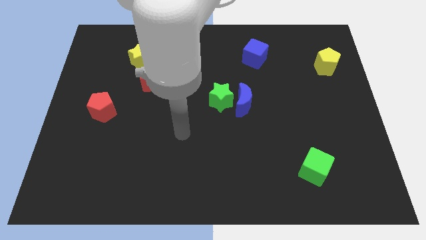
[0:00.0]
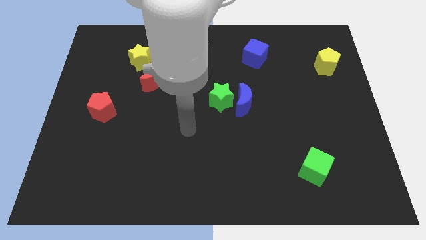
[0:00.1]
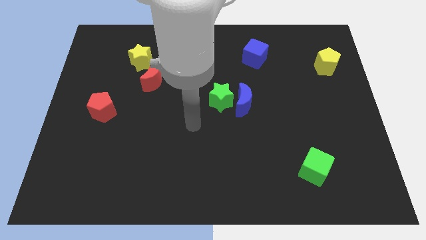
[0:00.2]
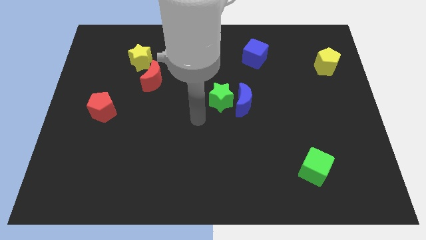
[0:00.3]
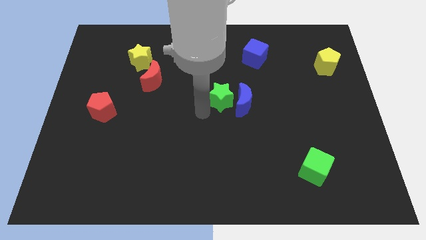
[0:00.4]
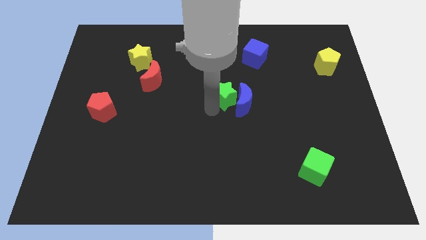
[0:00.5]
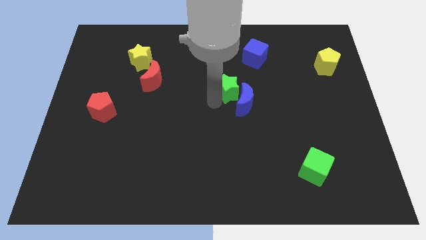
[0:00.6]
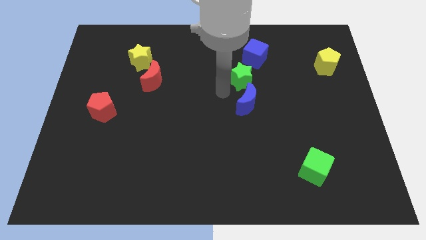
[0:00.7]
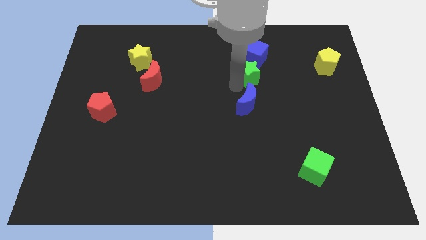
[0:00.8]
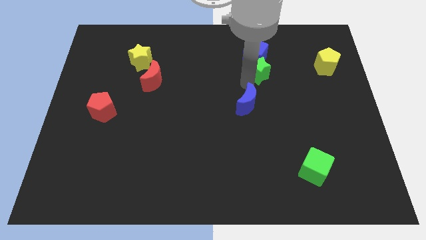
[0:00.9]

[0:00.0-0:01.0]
pull the blue moon apart from the green star

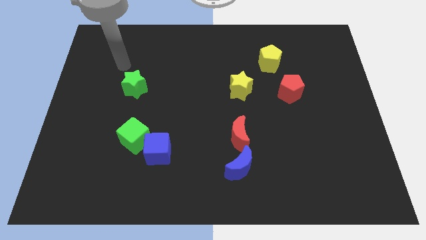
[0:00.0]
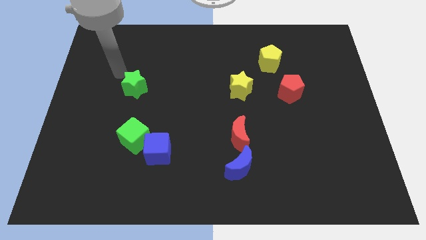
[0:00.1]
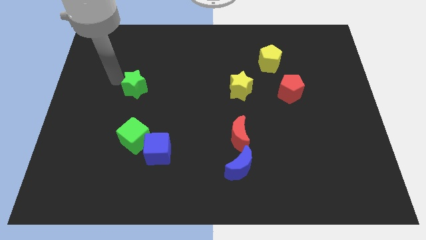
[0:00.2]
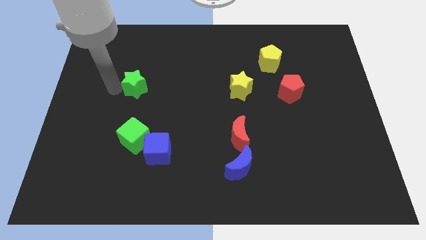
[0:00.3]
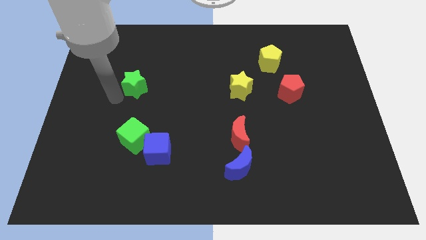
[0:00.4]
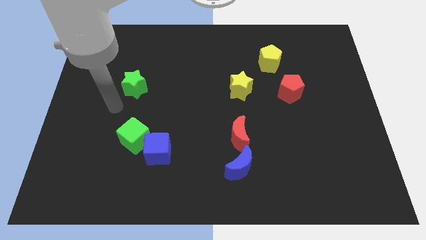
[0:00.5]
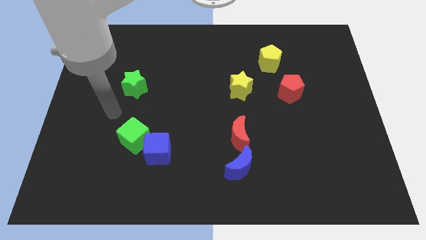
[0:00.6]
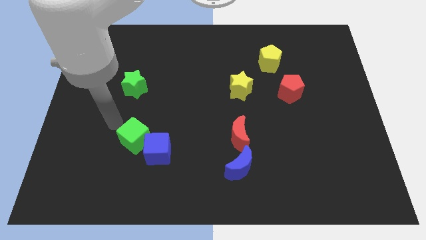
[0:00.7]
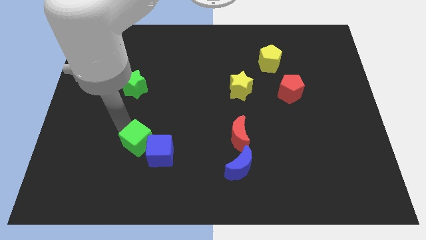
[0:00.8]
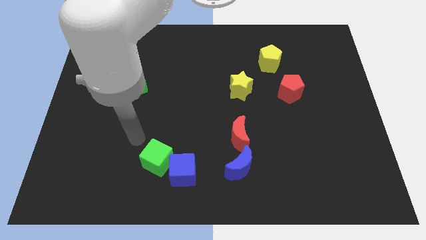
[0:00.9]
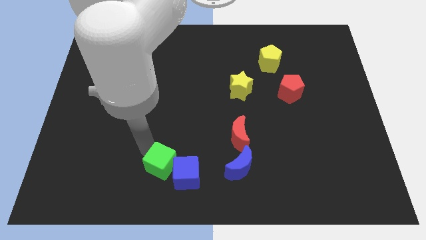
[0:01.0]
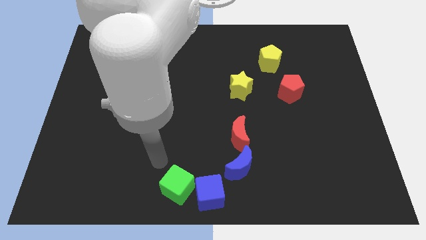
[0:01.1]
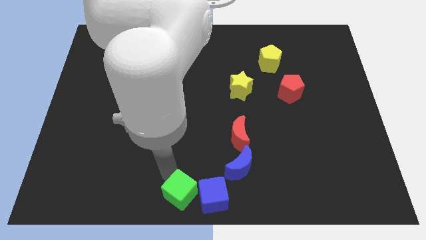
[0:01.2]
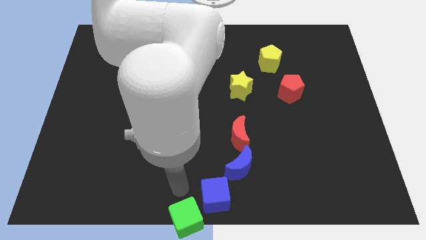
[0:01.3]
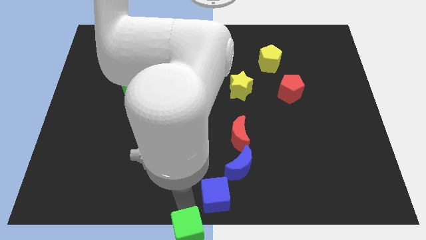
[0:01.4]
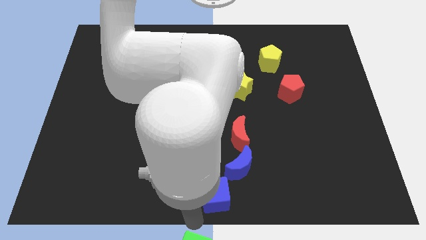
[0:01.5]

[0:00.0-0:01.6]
move the blue cube away from the green cube

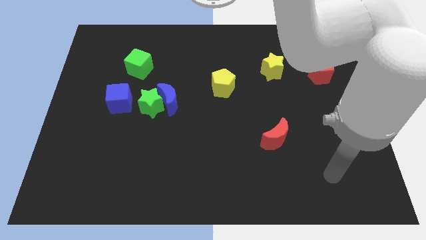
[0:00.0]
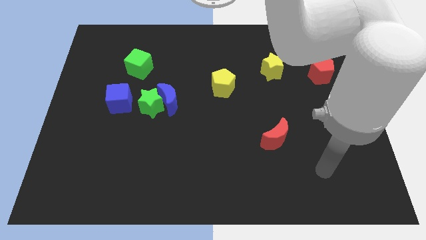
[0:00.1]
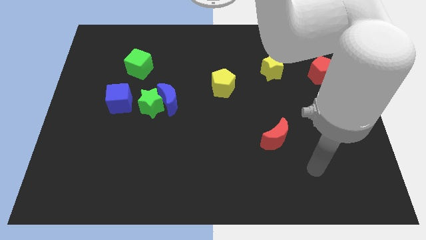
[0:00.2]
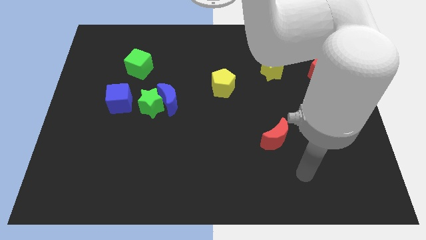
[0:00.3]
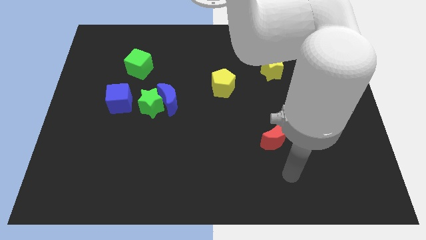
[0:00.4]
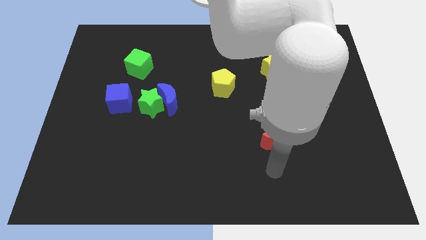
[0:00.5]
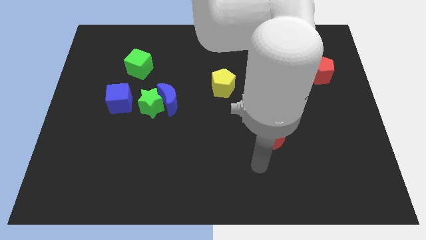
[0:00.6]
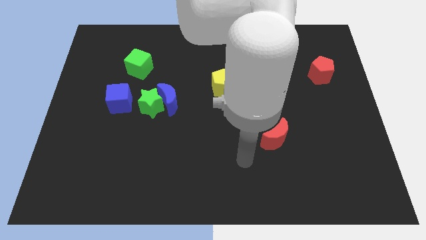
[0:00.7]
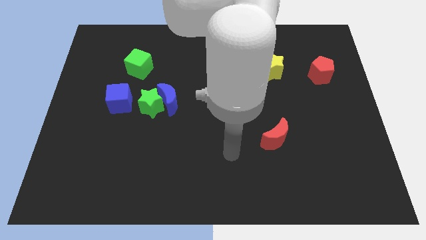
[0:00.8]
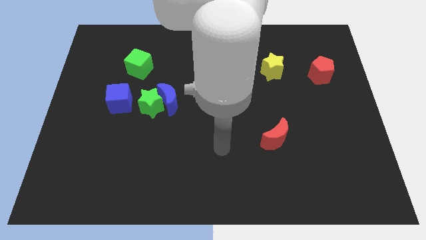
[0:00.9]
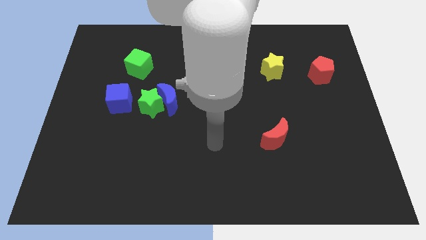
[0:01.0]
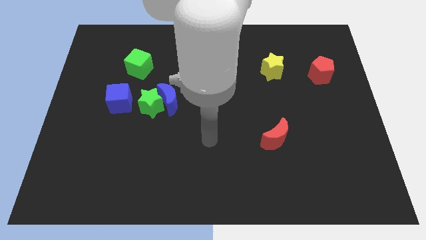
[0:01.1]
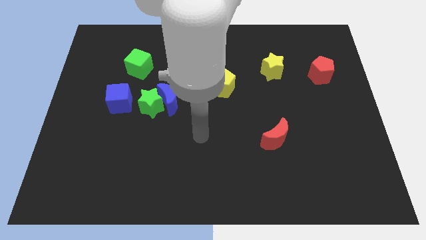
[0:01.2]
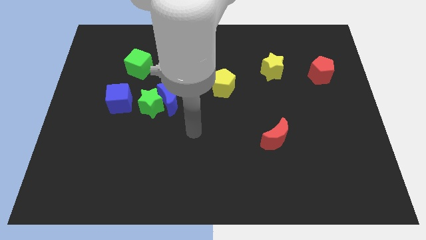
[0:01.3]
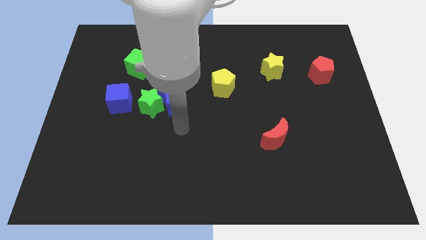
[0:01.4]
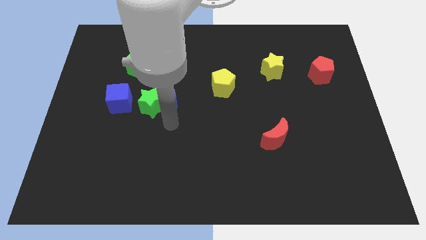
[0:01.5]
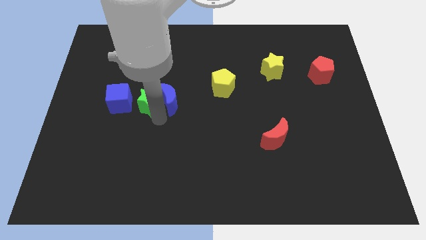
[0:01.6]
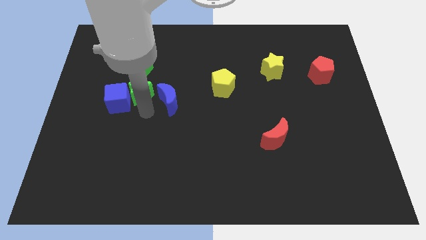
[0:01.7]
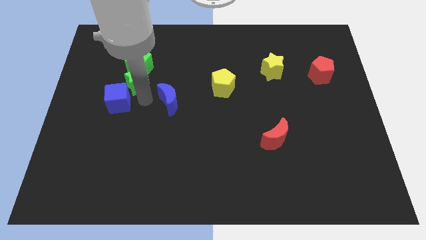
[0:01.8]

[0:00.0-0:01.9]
separate the blue moon from the green star

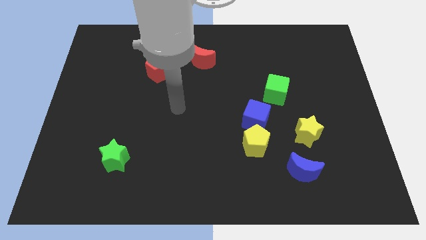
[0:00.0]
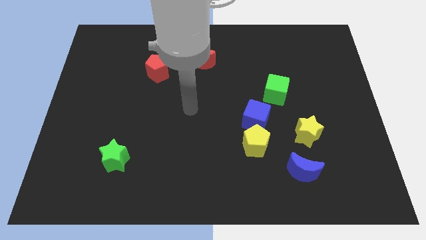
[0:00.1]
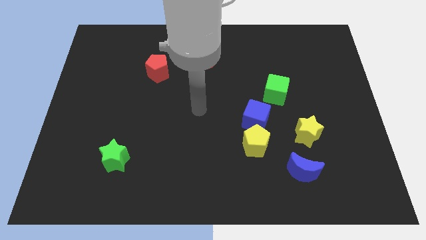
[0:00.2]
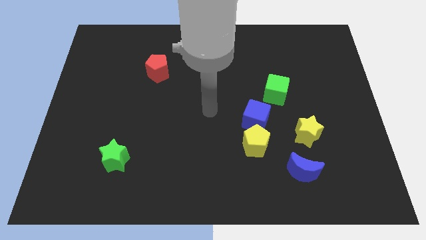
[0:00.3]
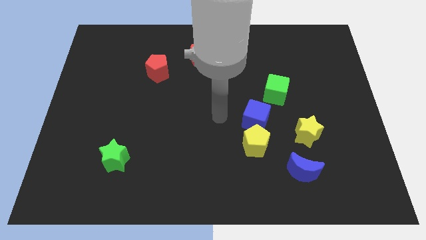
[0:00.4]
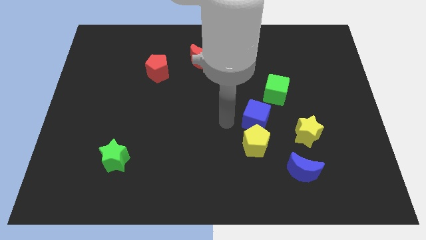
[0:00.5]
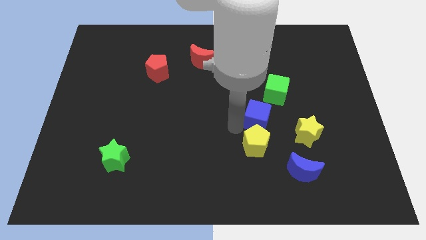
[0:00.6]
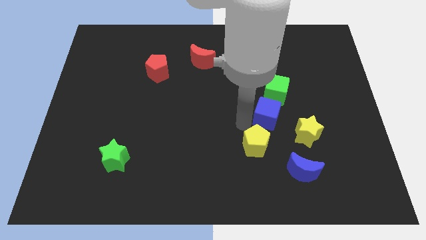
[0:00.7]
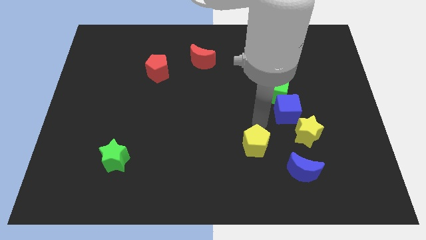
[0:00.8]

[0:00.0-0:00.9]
separate the yellow pentagon from the blue cube

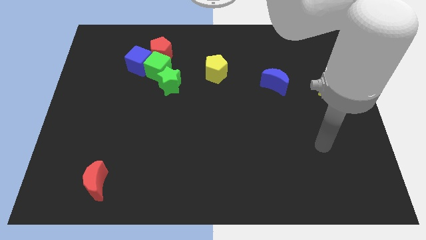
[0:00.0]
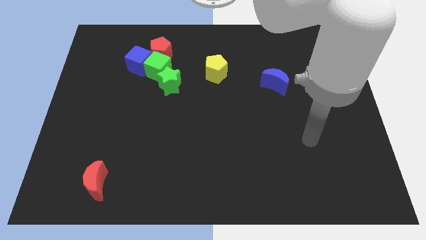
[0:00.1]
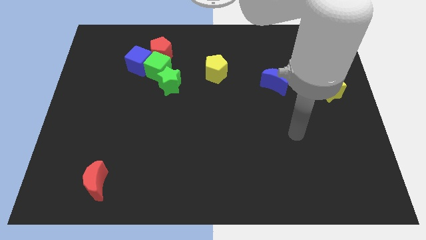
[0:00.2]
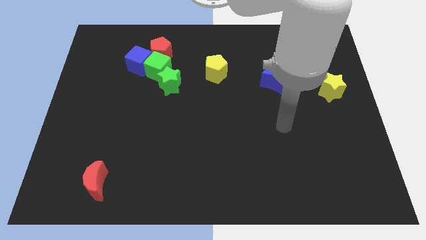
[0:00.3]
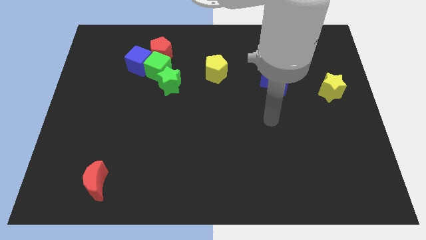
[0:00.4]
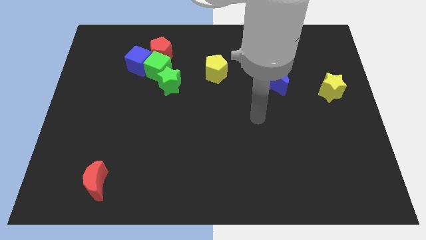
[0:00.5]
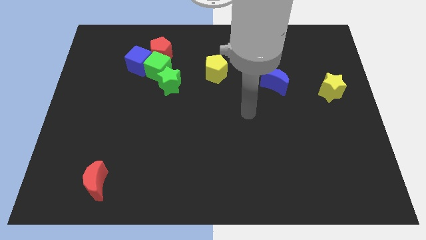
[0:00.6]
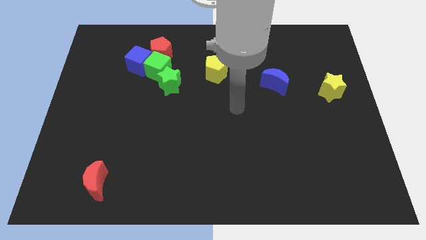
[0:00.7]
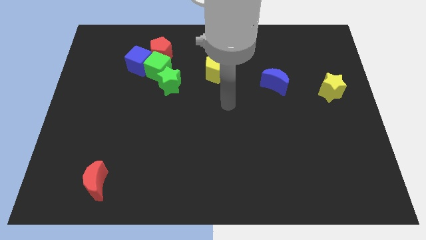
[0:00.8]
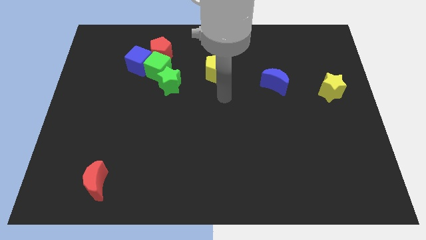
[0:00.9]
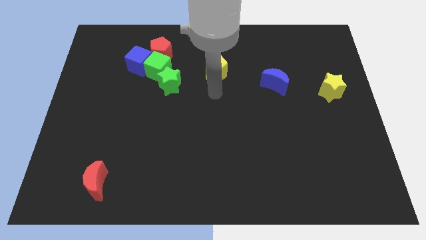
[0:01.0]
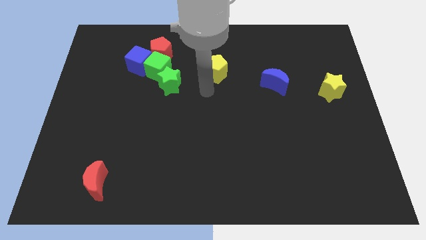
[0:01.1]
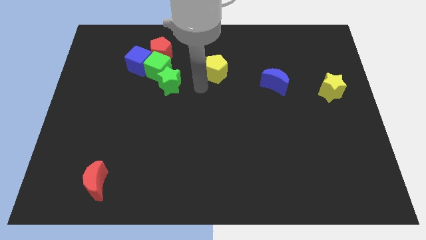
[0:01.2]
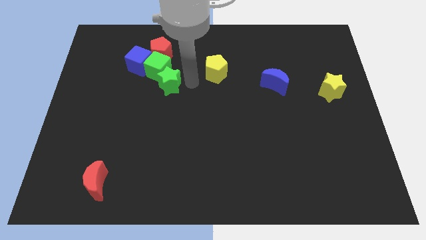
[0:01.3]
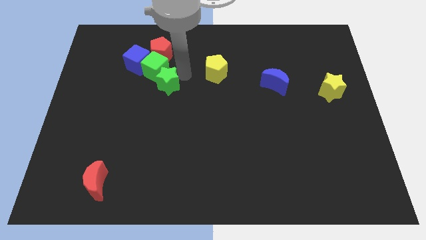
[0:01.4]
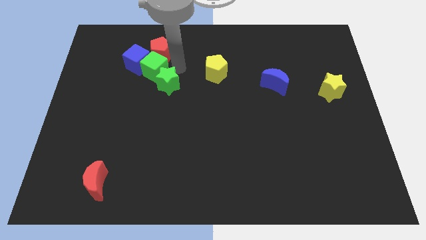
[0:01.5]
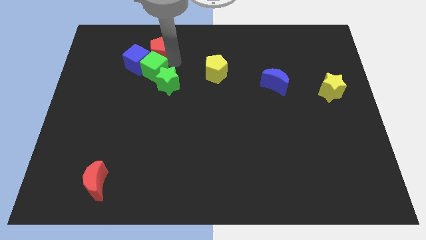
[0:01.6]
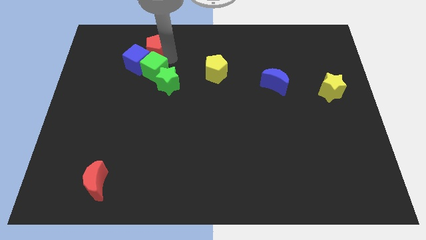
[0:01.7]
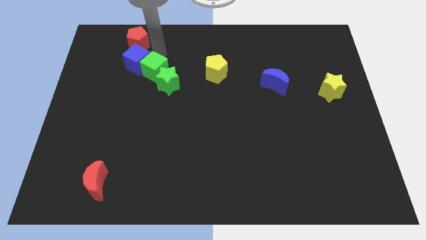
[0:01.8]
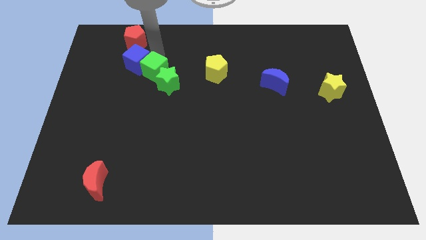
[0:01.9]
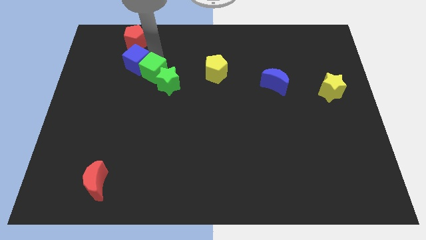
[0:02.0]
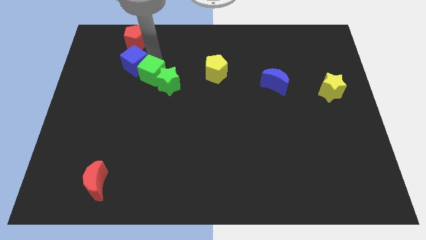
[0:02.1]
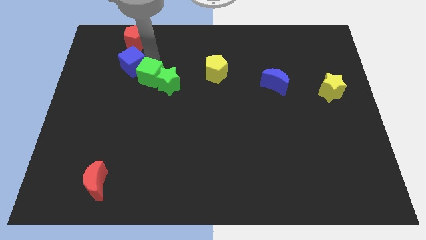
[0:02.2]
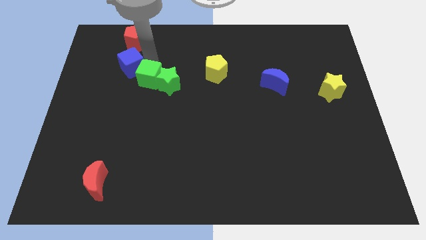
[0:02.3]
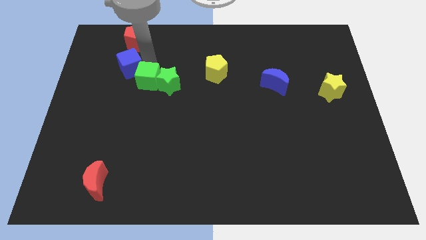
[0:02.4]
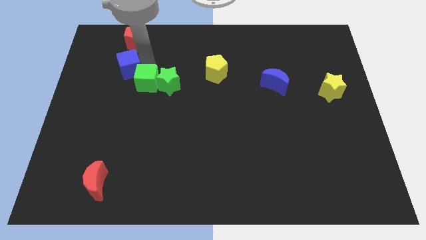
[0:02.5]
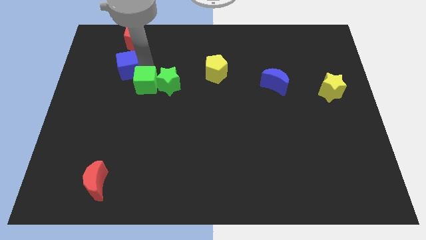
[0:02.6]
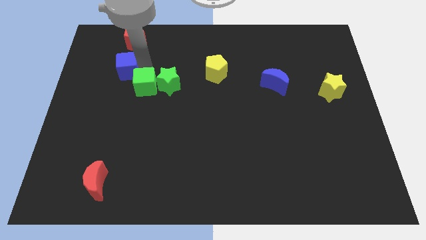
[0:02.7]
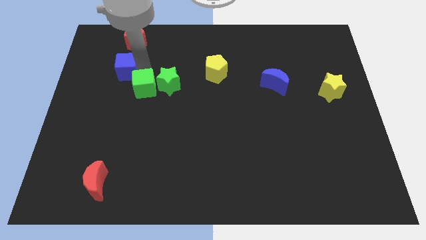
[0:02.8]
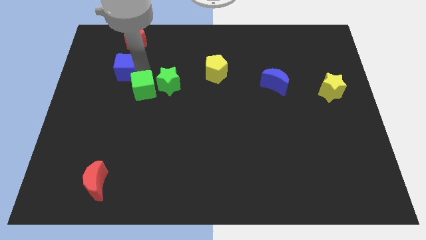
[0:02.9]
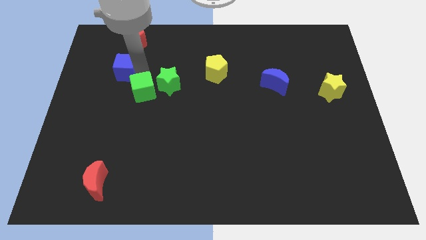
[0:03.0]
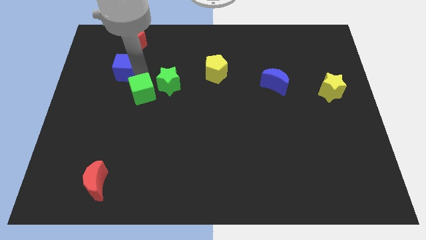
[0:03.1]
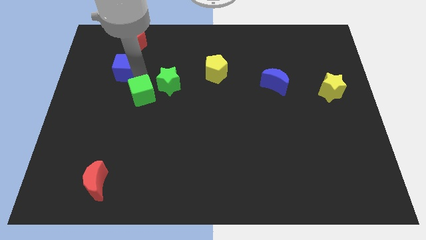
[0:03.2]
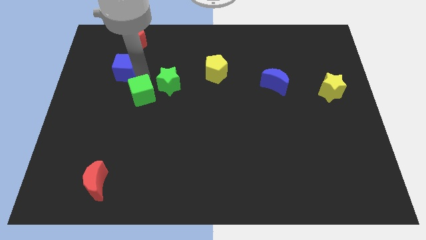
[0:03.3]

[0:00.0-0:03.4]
separate the green cube from the blue cube, red pentagon, and green star

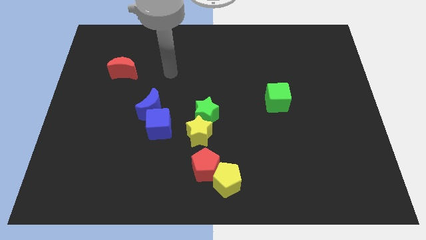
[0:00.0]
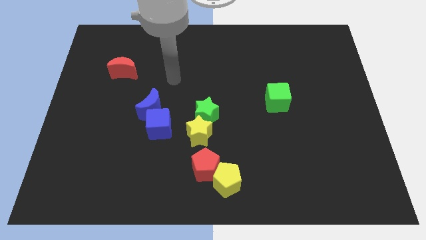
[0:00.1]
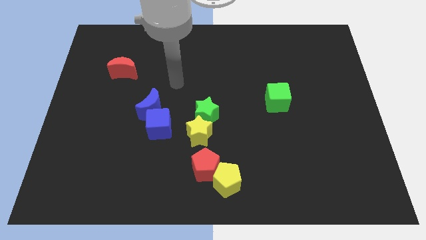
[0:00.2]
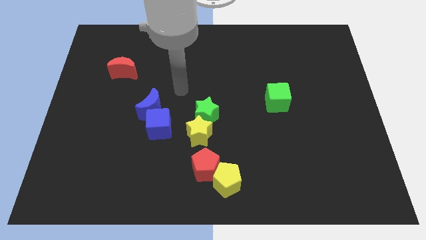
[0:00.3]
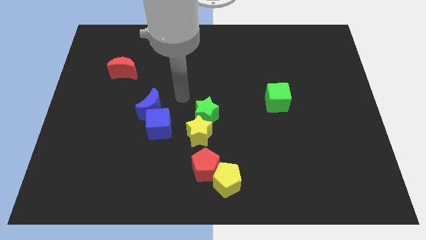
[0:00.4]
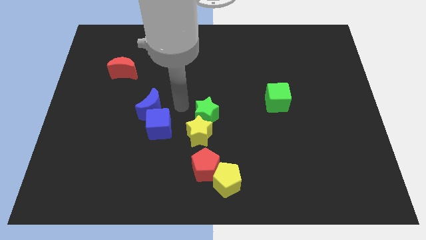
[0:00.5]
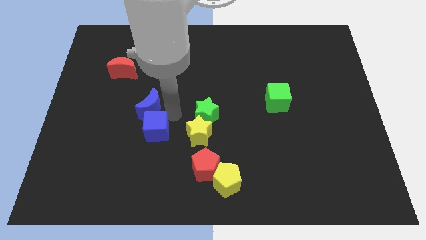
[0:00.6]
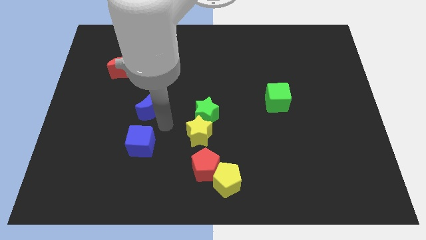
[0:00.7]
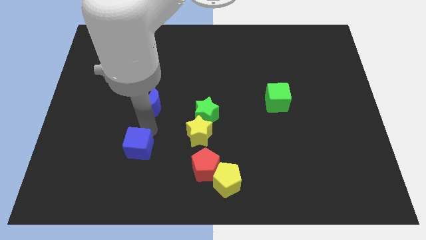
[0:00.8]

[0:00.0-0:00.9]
pull the blue moon apart from the blue cube
